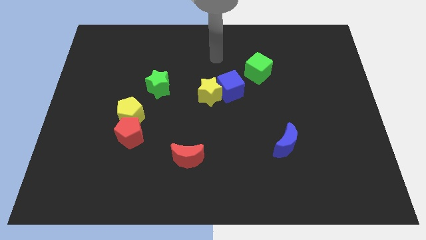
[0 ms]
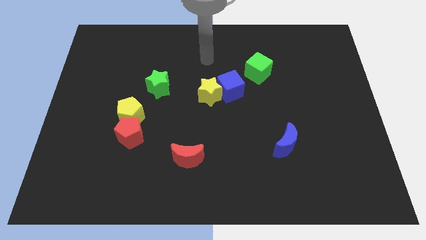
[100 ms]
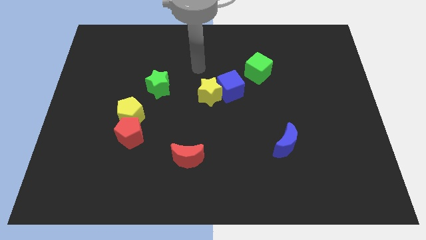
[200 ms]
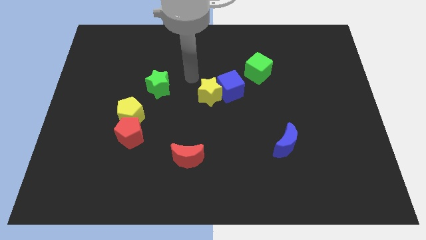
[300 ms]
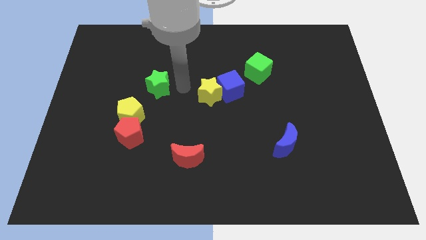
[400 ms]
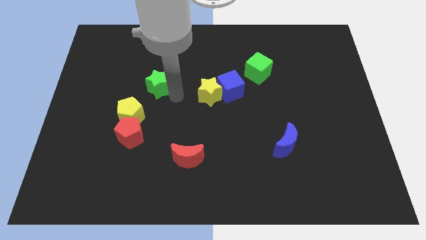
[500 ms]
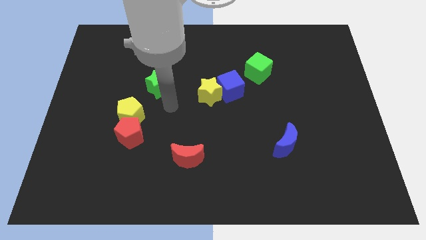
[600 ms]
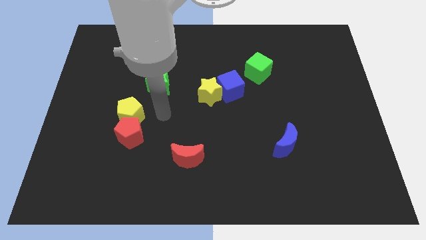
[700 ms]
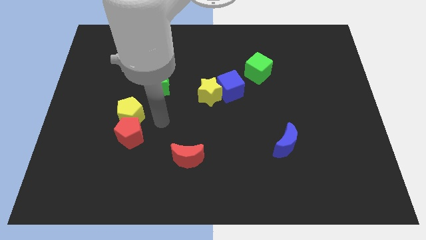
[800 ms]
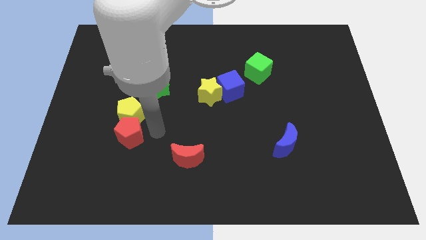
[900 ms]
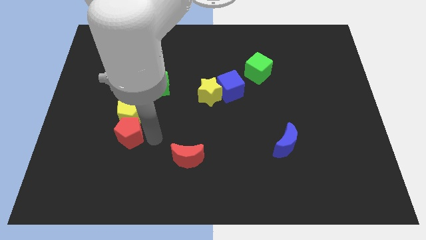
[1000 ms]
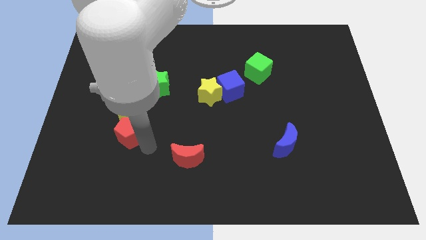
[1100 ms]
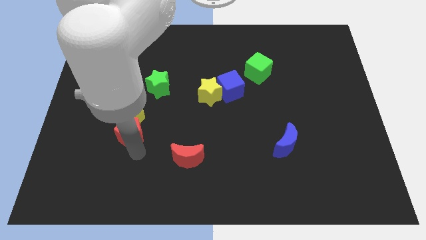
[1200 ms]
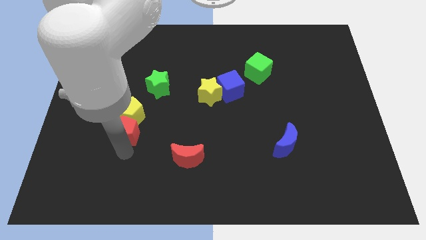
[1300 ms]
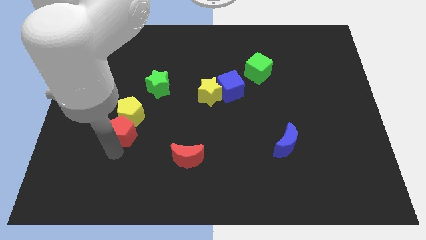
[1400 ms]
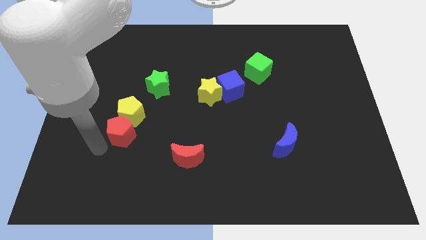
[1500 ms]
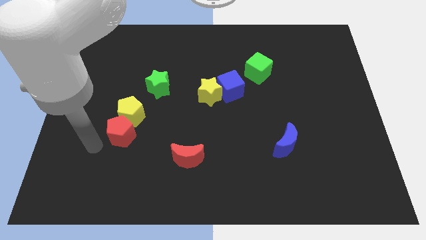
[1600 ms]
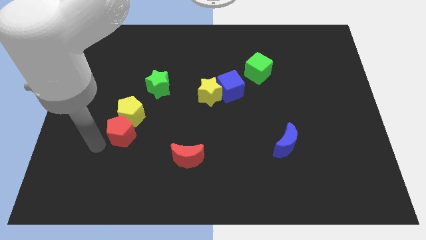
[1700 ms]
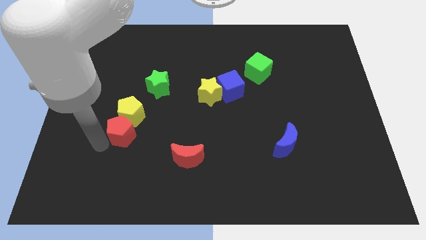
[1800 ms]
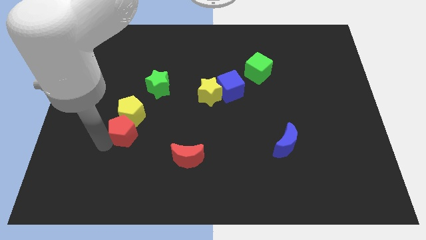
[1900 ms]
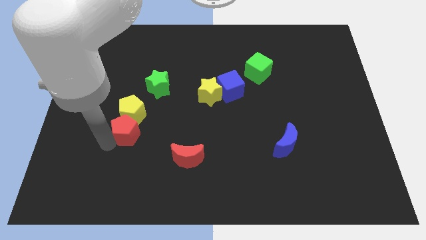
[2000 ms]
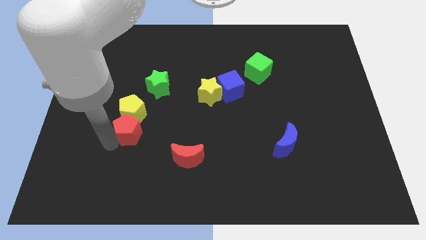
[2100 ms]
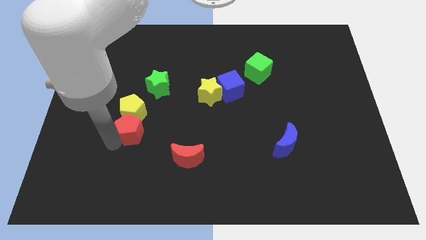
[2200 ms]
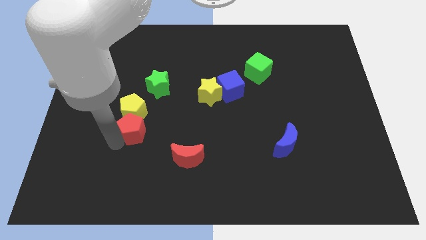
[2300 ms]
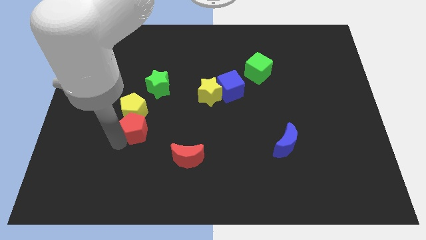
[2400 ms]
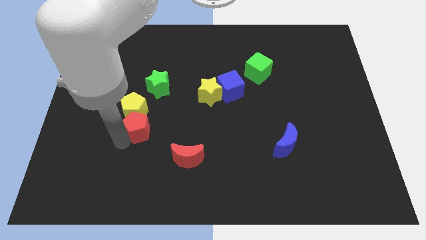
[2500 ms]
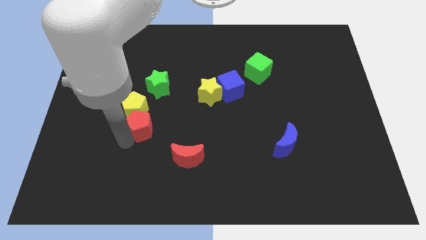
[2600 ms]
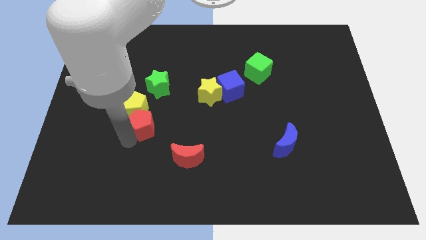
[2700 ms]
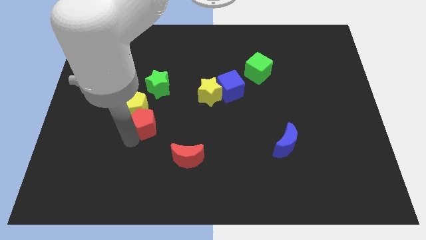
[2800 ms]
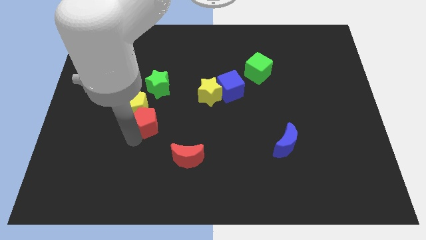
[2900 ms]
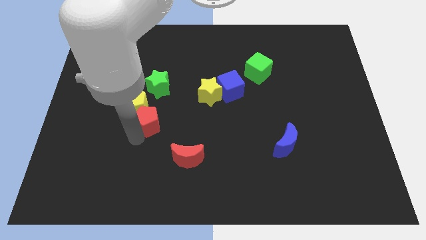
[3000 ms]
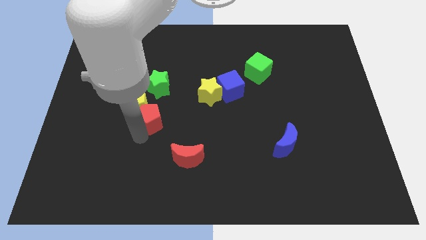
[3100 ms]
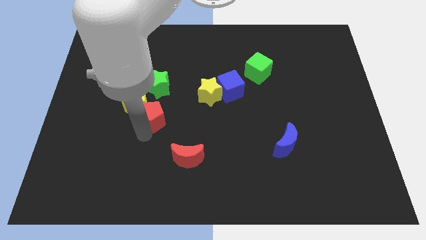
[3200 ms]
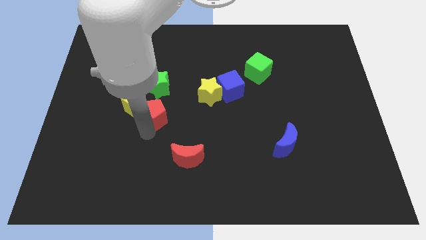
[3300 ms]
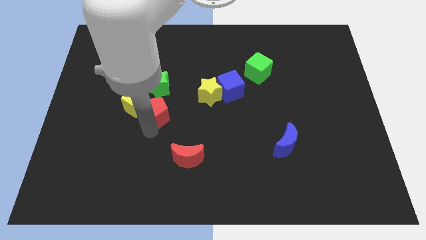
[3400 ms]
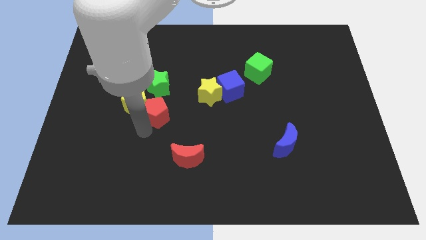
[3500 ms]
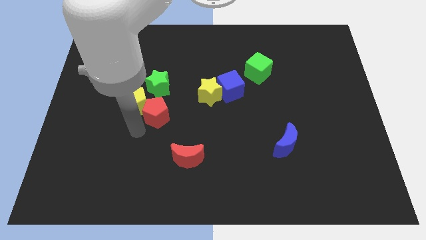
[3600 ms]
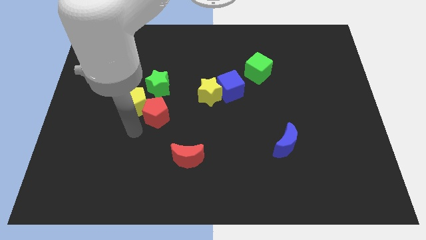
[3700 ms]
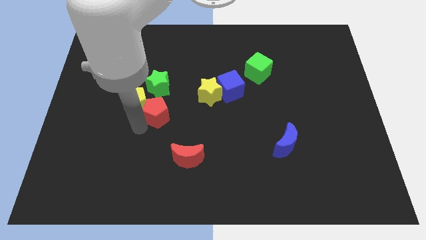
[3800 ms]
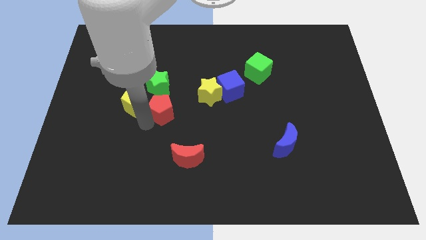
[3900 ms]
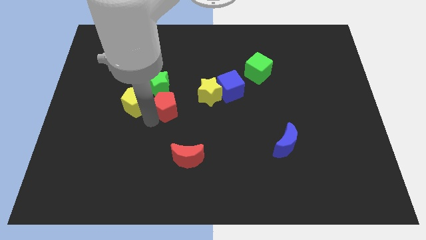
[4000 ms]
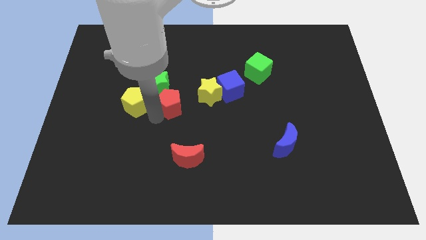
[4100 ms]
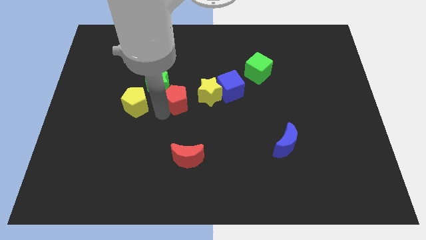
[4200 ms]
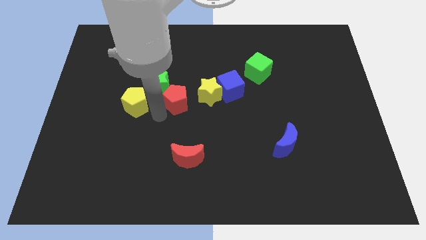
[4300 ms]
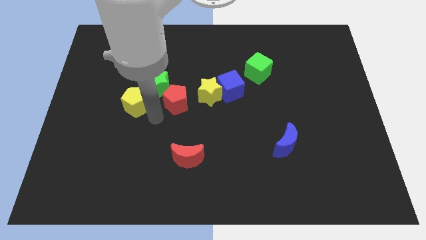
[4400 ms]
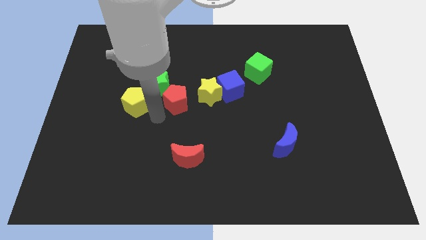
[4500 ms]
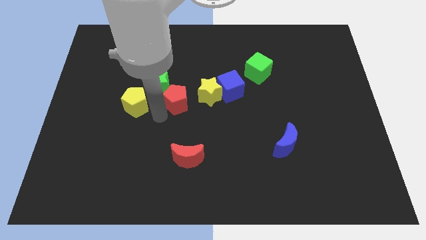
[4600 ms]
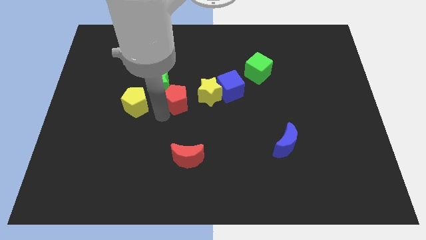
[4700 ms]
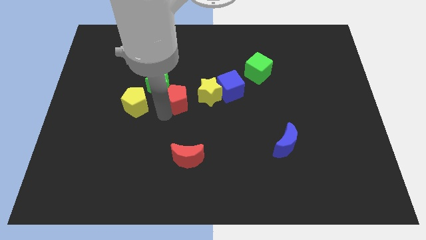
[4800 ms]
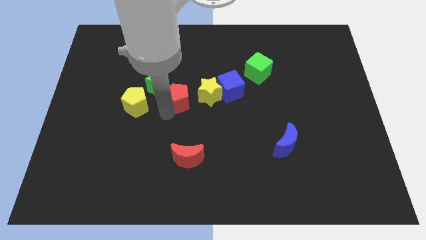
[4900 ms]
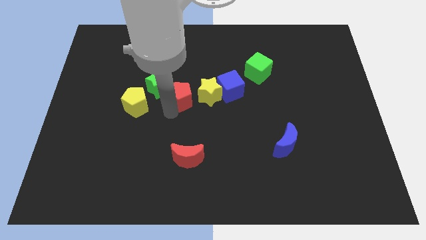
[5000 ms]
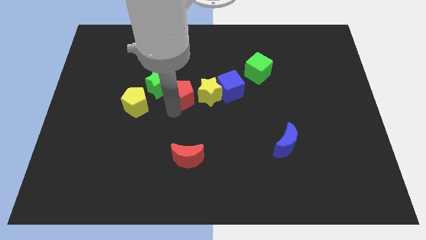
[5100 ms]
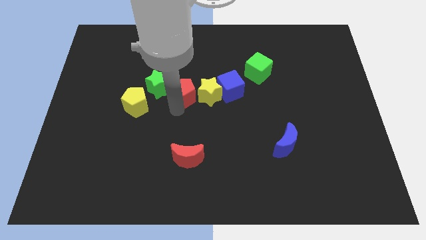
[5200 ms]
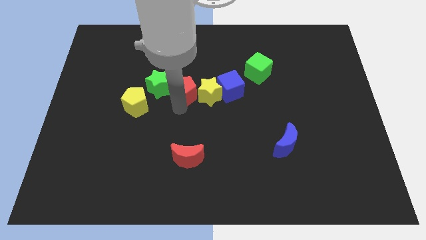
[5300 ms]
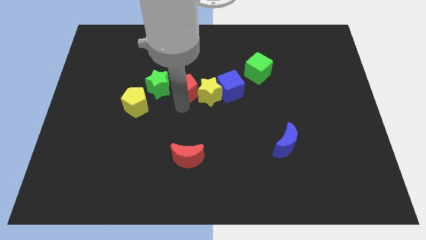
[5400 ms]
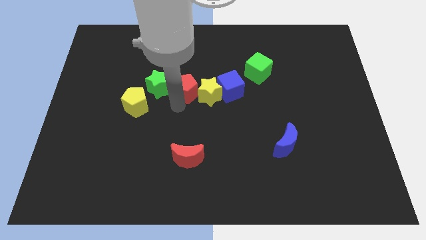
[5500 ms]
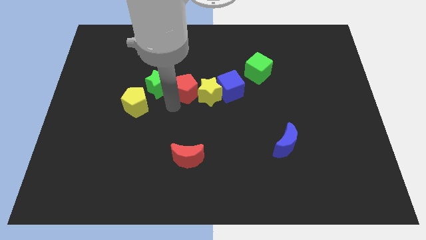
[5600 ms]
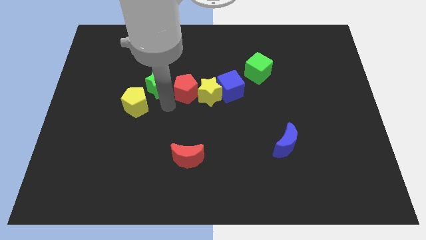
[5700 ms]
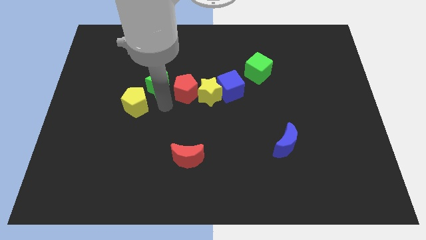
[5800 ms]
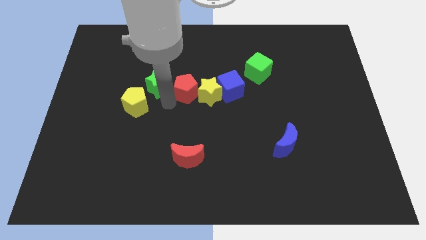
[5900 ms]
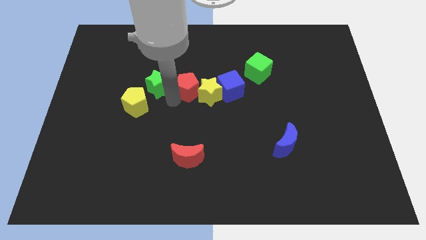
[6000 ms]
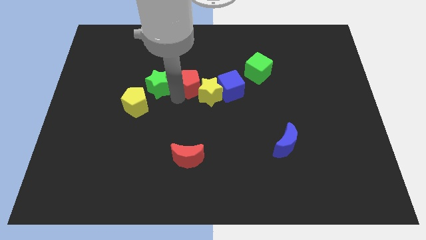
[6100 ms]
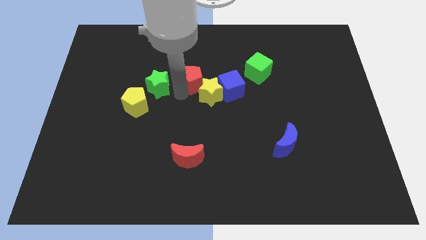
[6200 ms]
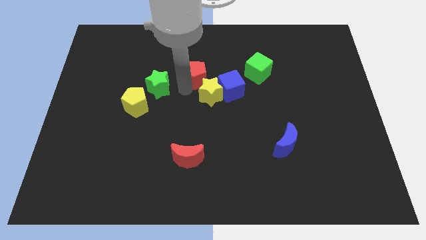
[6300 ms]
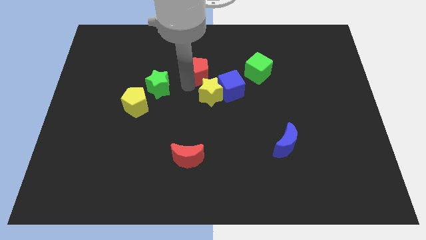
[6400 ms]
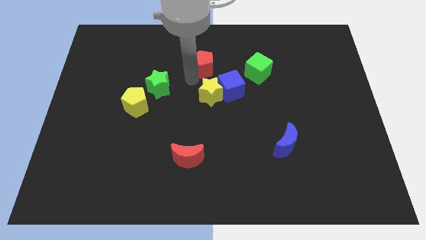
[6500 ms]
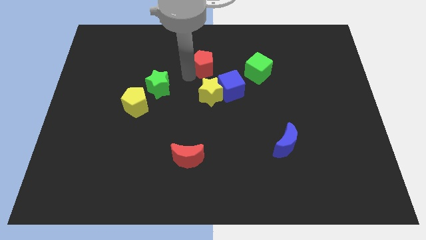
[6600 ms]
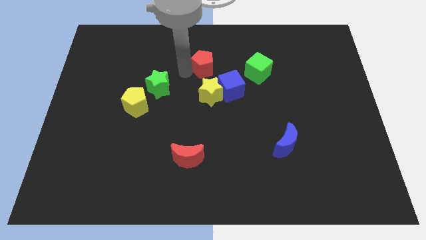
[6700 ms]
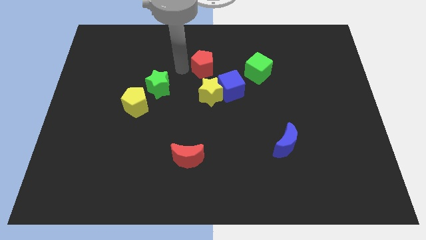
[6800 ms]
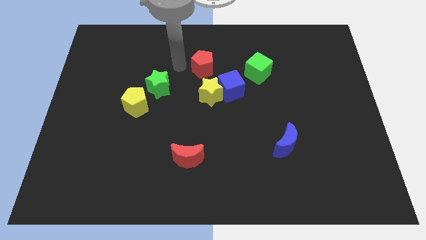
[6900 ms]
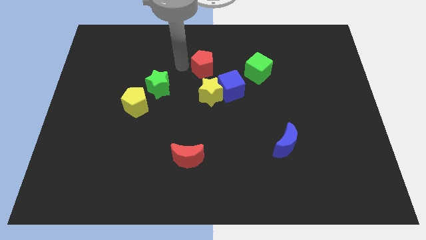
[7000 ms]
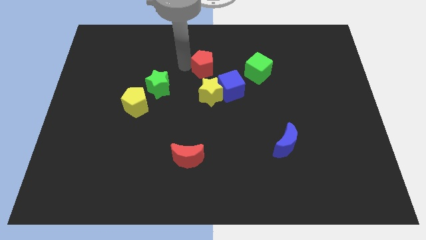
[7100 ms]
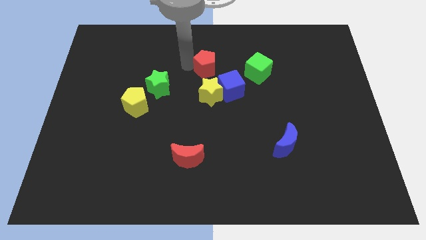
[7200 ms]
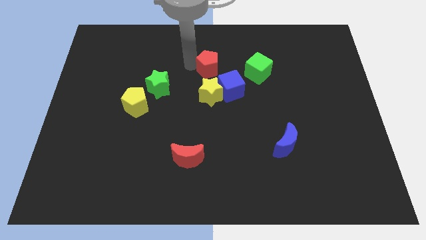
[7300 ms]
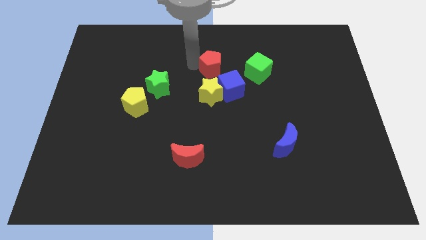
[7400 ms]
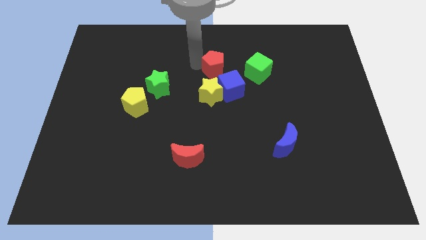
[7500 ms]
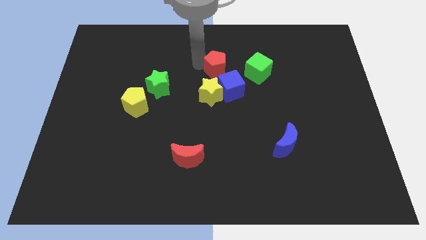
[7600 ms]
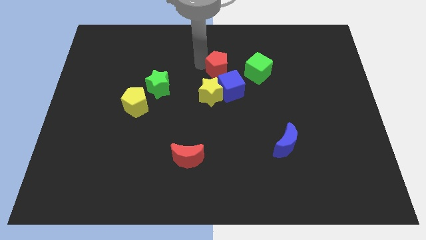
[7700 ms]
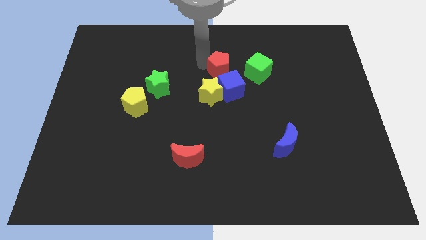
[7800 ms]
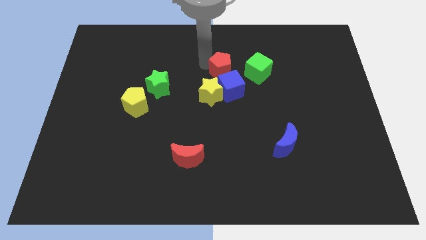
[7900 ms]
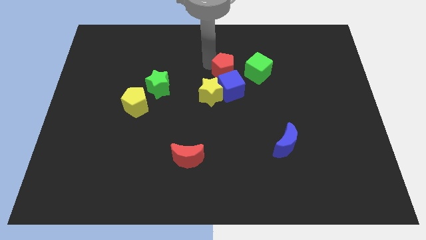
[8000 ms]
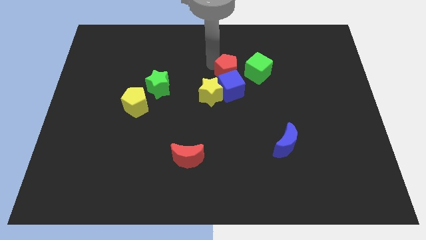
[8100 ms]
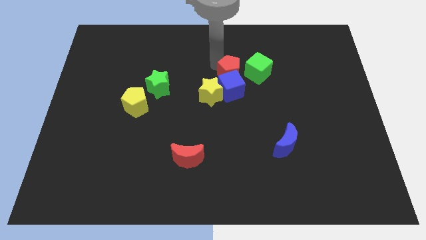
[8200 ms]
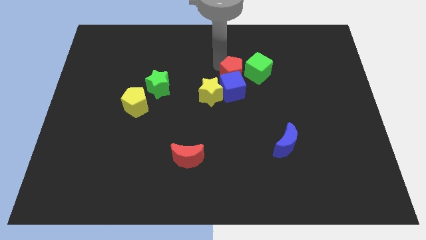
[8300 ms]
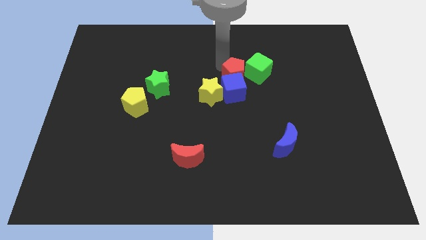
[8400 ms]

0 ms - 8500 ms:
push the red pentagon next to the green cube
